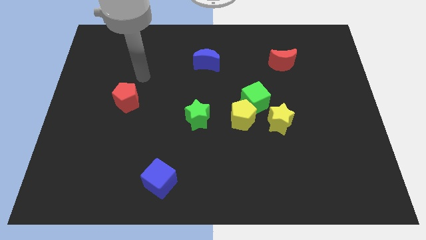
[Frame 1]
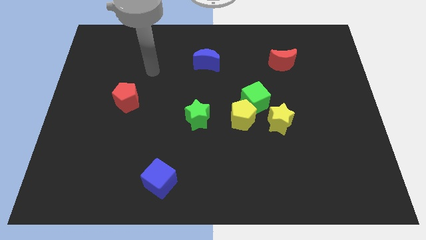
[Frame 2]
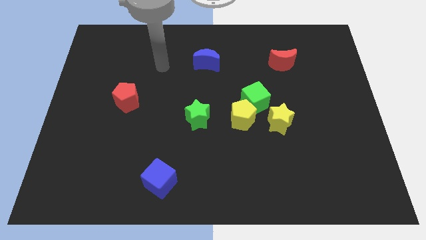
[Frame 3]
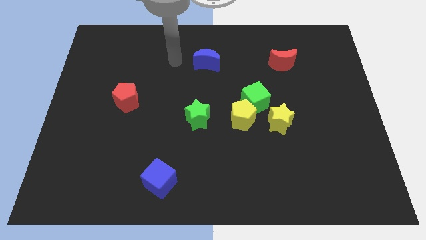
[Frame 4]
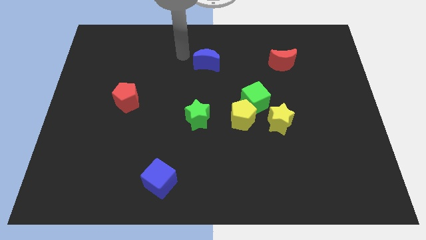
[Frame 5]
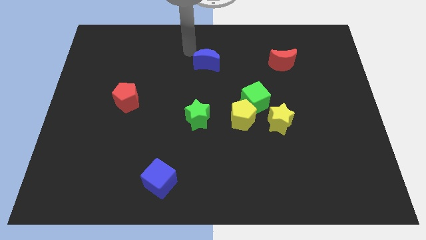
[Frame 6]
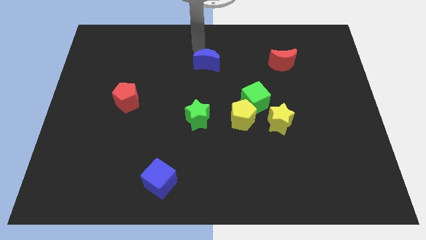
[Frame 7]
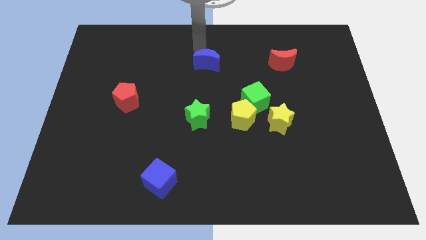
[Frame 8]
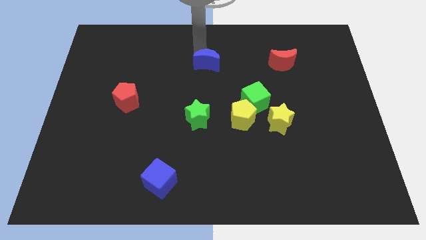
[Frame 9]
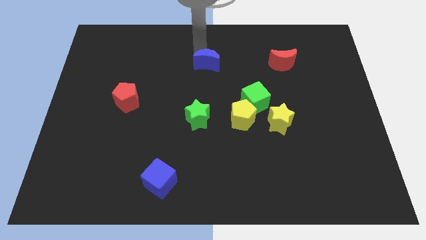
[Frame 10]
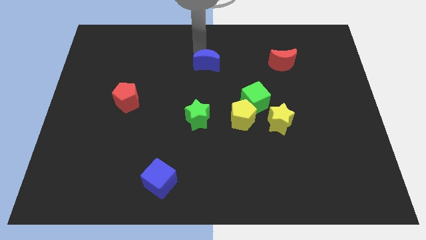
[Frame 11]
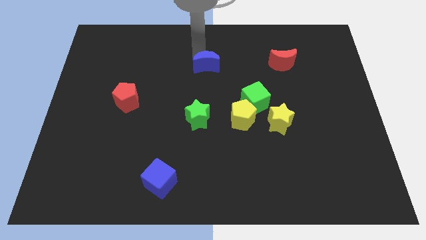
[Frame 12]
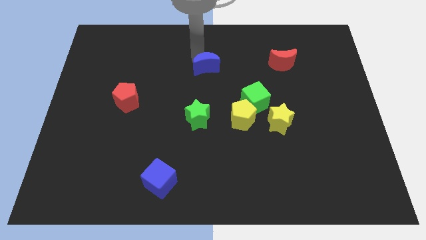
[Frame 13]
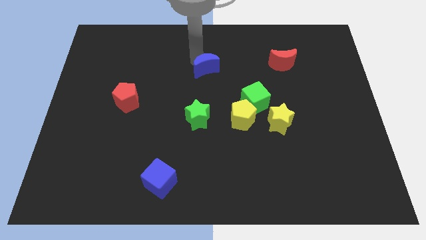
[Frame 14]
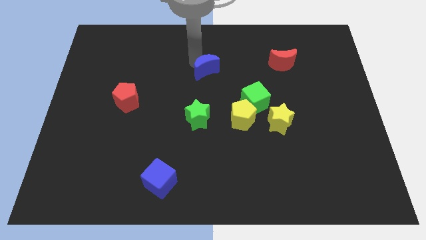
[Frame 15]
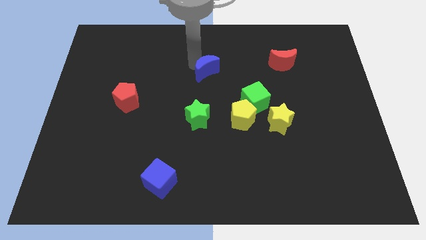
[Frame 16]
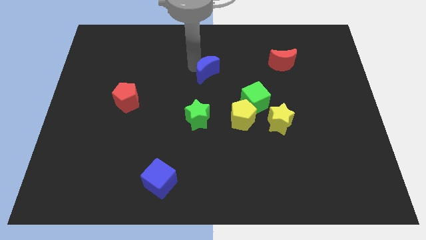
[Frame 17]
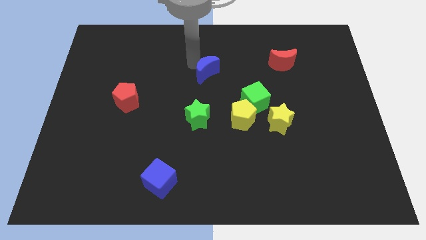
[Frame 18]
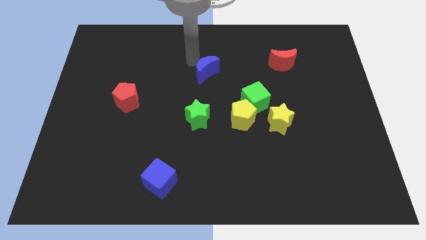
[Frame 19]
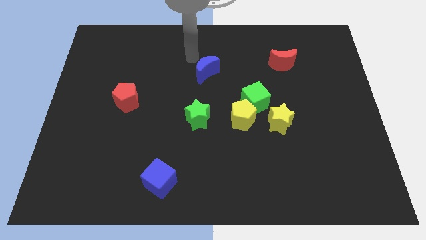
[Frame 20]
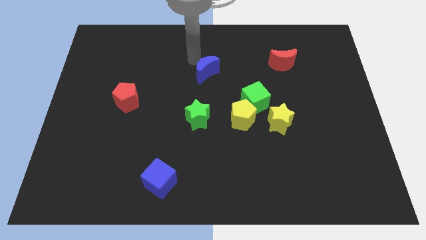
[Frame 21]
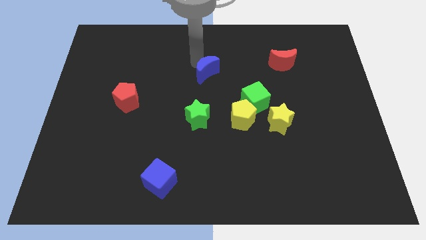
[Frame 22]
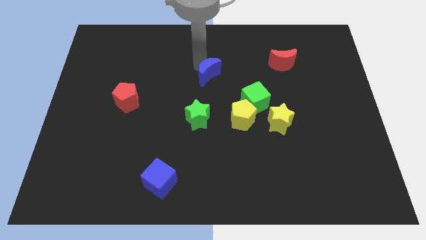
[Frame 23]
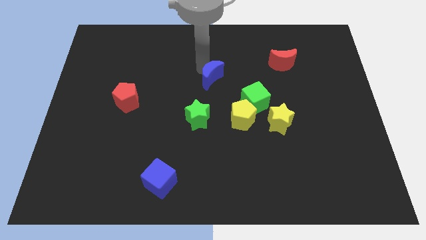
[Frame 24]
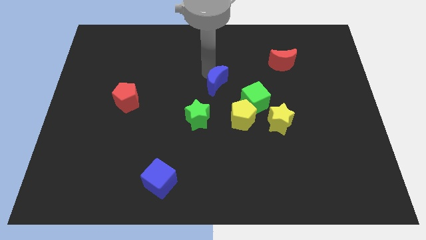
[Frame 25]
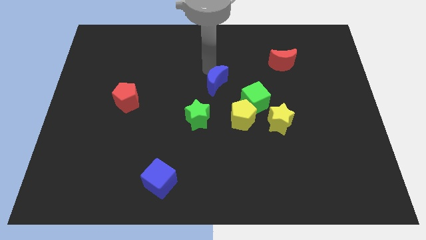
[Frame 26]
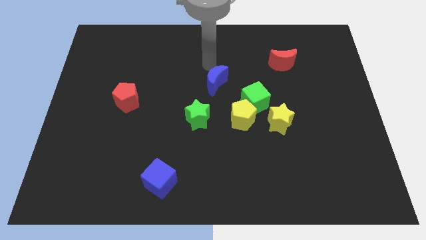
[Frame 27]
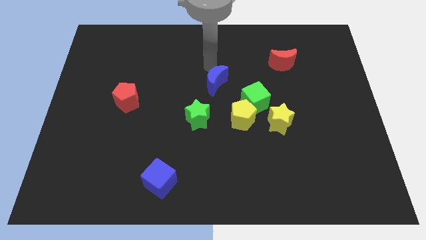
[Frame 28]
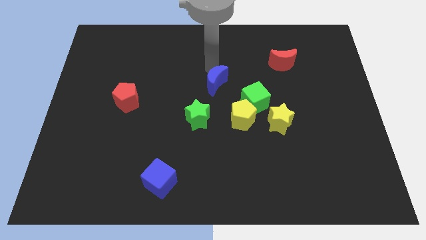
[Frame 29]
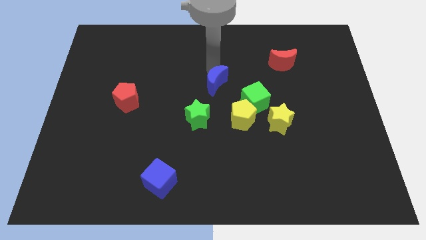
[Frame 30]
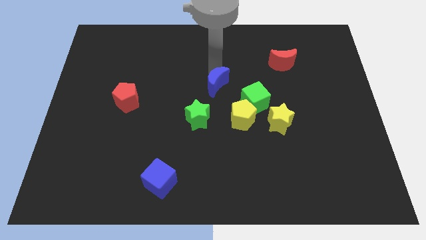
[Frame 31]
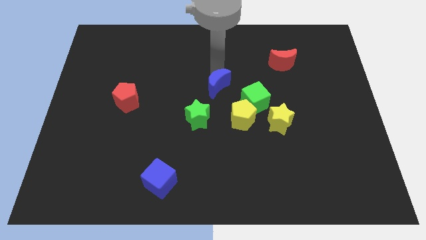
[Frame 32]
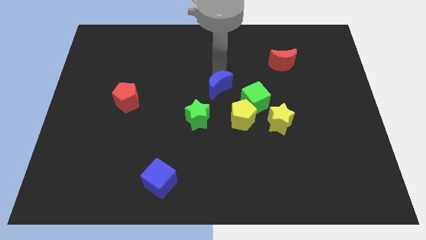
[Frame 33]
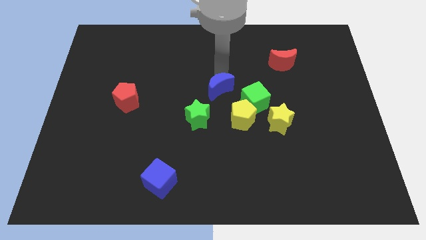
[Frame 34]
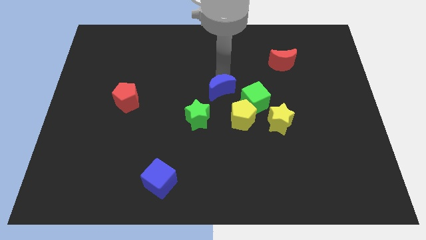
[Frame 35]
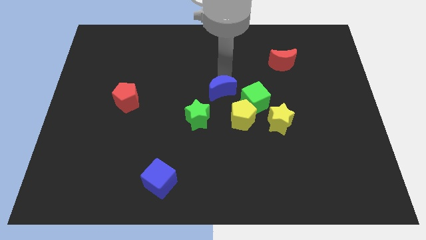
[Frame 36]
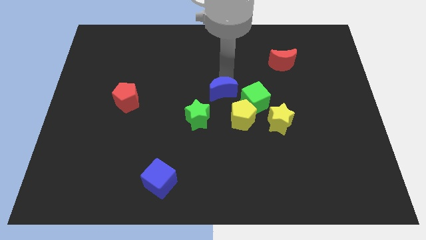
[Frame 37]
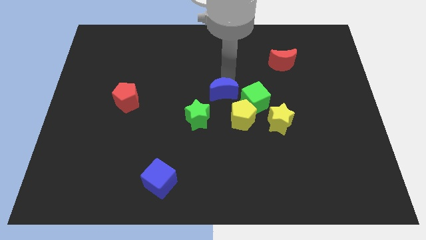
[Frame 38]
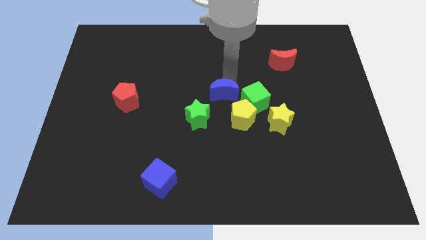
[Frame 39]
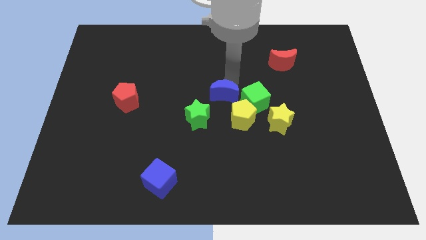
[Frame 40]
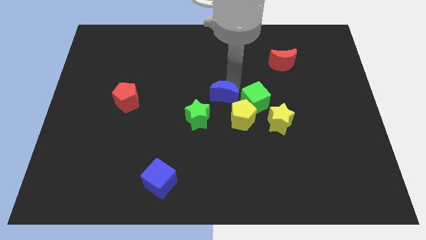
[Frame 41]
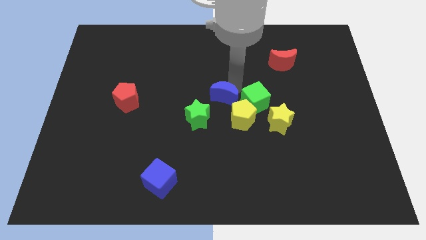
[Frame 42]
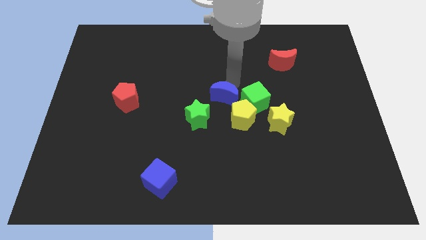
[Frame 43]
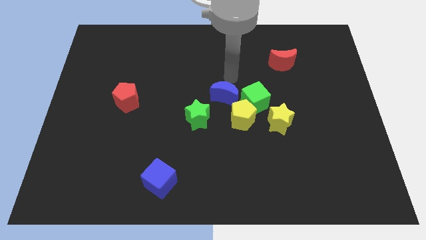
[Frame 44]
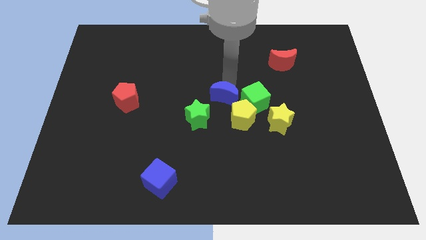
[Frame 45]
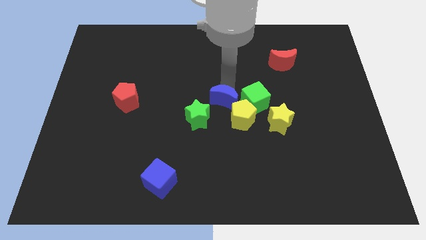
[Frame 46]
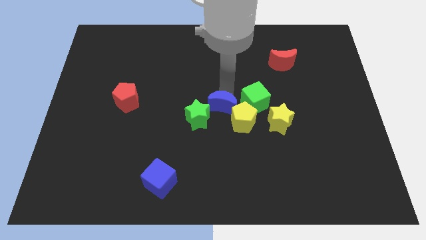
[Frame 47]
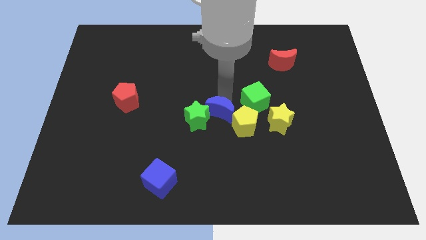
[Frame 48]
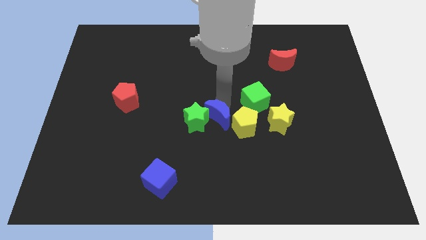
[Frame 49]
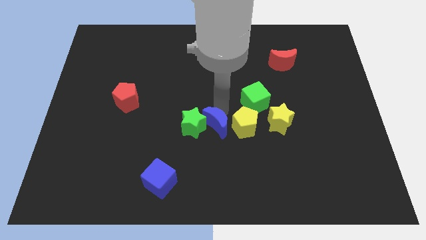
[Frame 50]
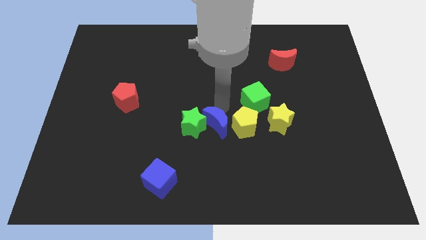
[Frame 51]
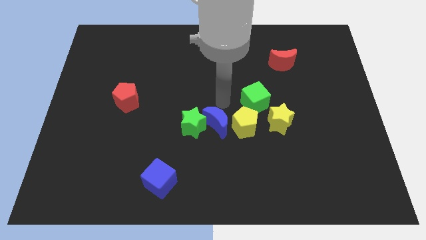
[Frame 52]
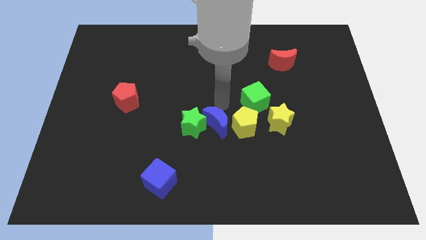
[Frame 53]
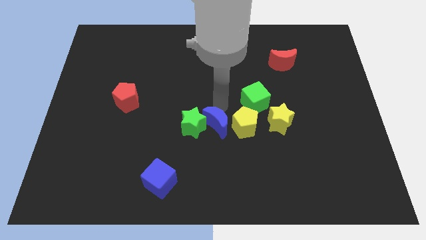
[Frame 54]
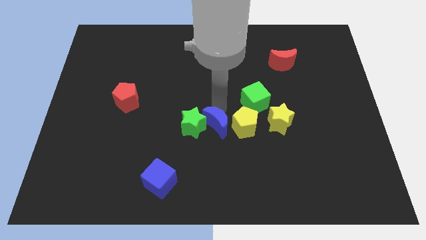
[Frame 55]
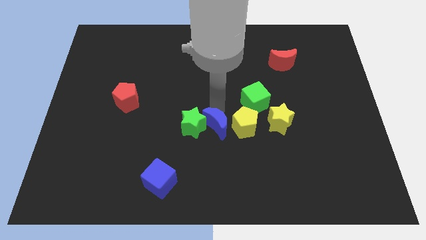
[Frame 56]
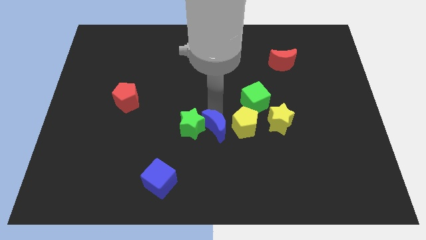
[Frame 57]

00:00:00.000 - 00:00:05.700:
push the blue moon downwards

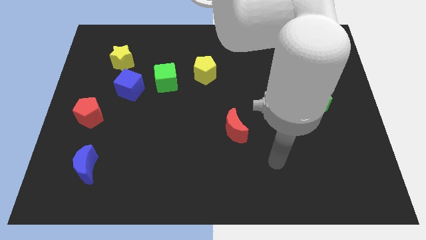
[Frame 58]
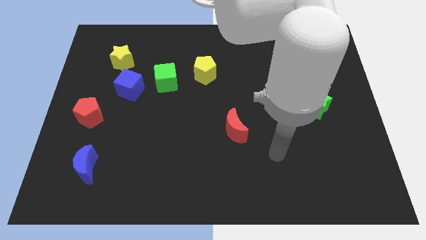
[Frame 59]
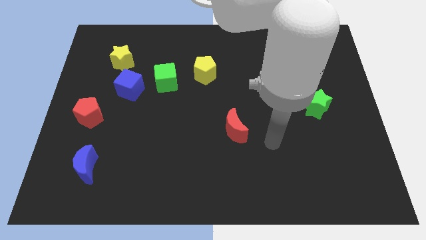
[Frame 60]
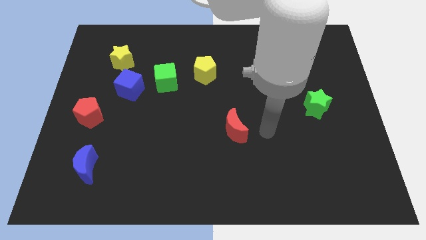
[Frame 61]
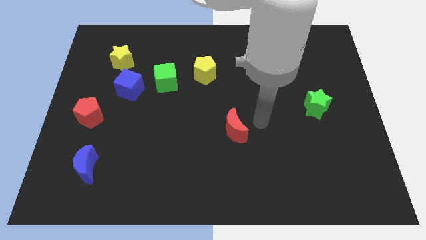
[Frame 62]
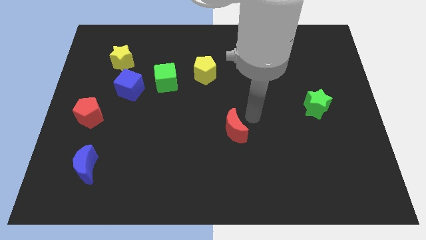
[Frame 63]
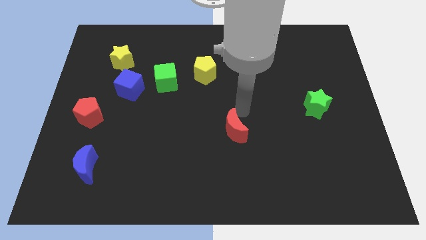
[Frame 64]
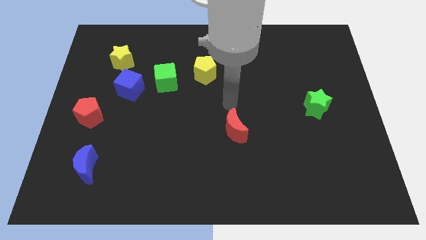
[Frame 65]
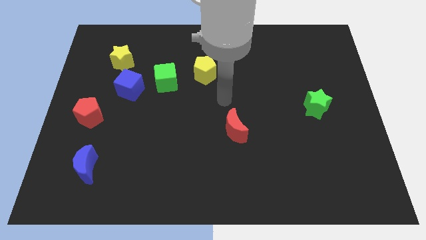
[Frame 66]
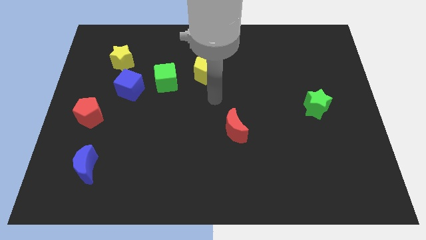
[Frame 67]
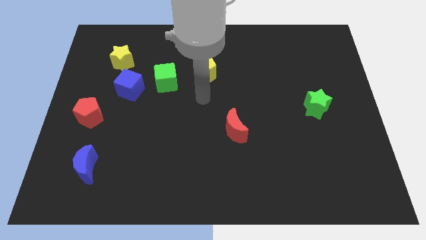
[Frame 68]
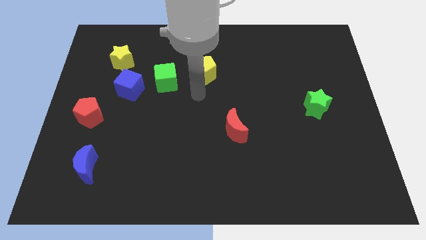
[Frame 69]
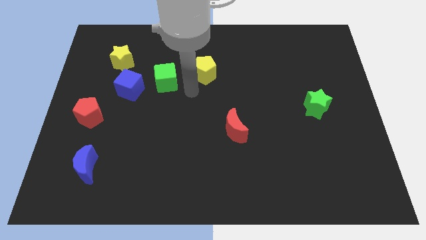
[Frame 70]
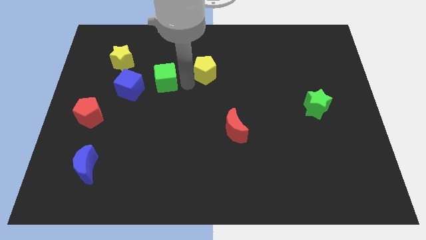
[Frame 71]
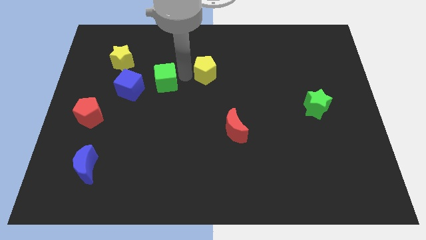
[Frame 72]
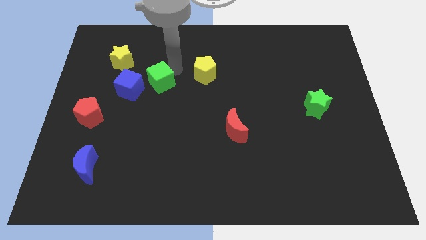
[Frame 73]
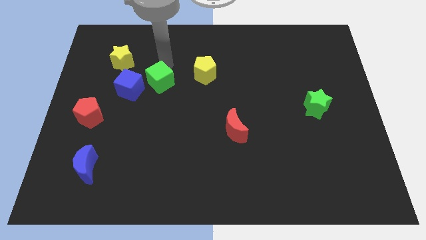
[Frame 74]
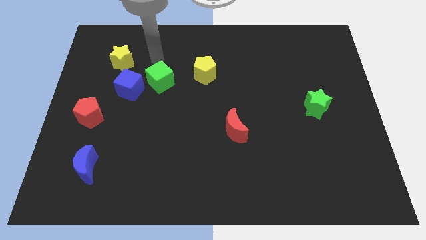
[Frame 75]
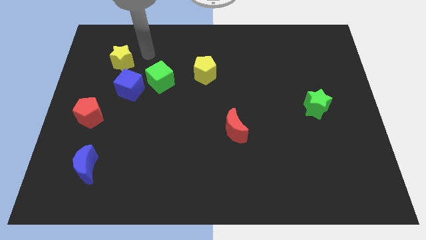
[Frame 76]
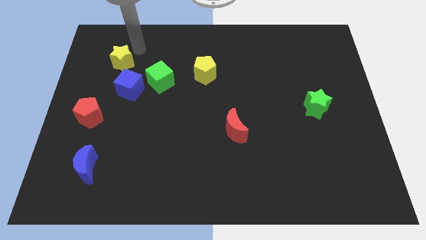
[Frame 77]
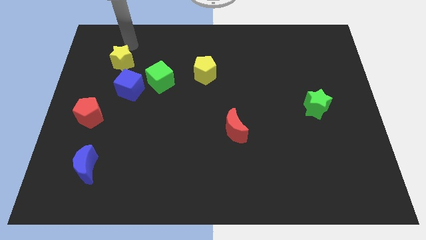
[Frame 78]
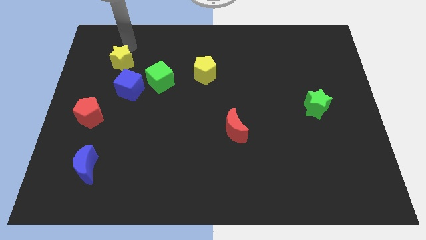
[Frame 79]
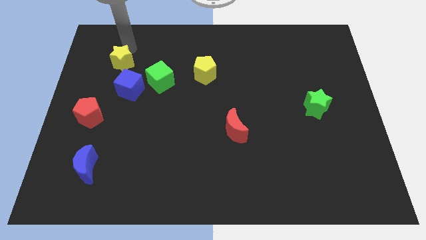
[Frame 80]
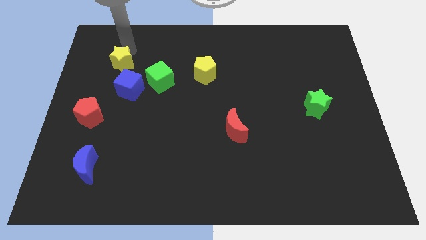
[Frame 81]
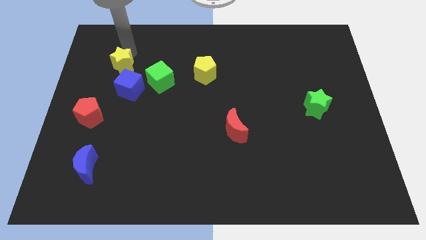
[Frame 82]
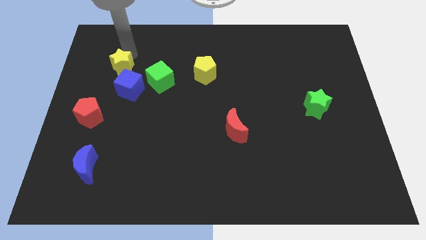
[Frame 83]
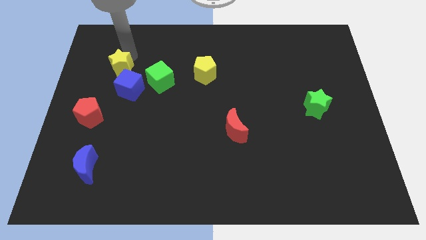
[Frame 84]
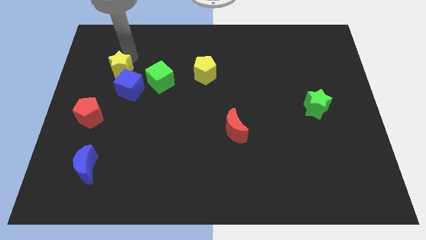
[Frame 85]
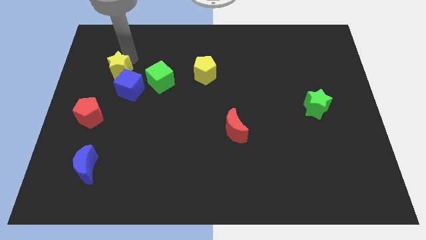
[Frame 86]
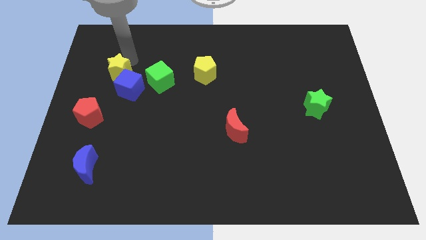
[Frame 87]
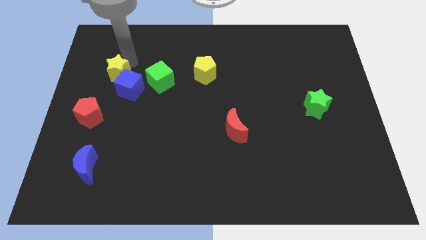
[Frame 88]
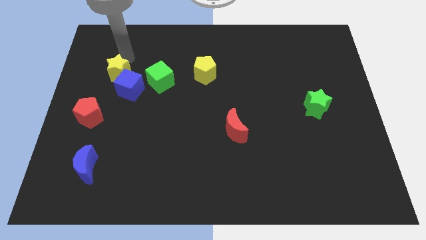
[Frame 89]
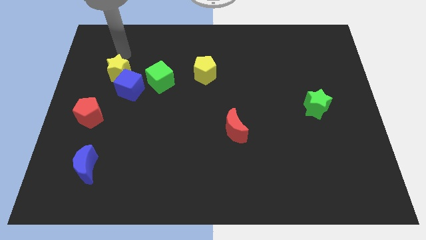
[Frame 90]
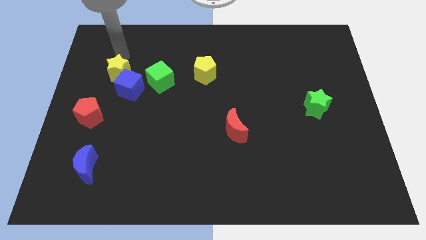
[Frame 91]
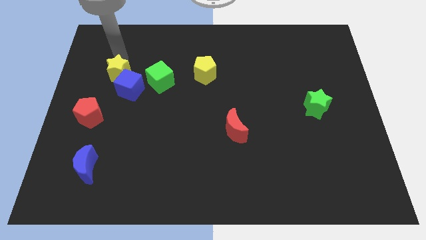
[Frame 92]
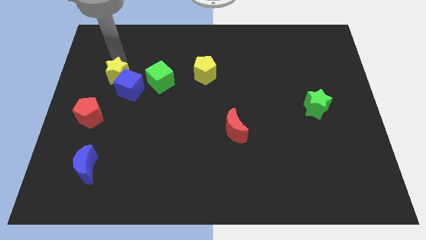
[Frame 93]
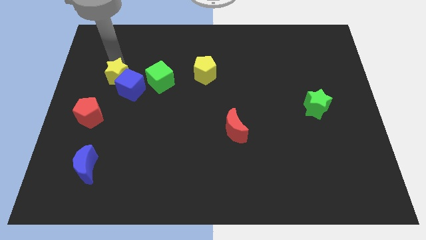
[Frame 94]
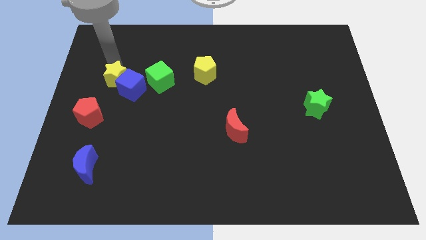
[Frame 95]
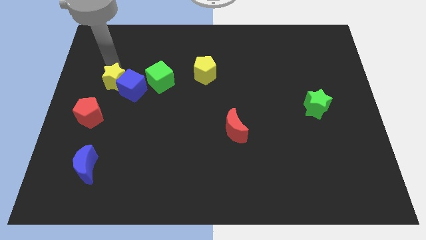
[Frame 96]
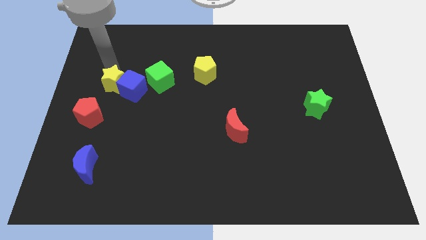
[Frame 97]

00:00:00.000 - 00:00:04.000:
move the yellow star down a little bit
